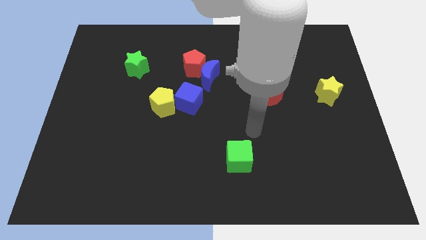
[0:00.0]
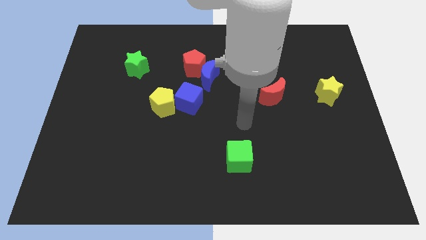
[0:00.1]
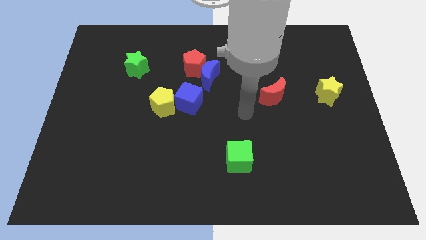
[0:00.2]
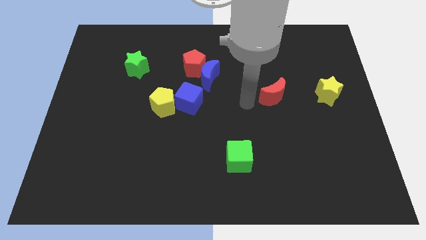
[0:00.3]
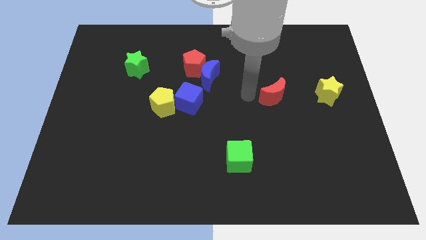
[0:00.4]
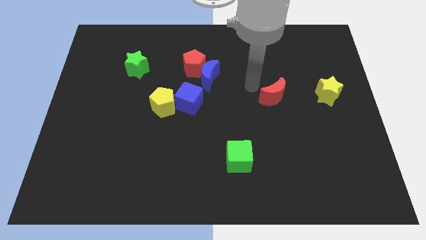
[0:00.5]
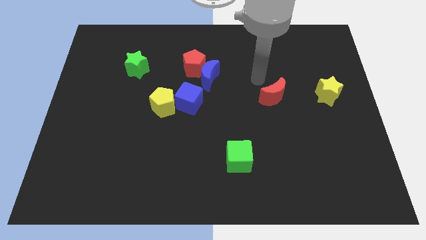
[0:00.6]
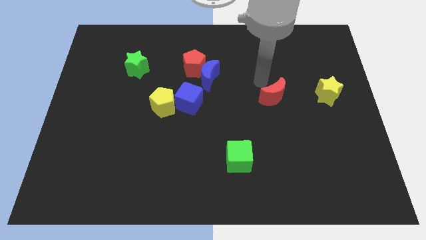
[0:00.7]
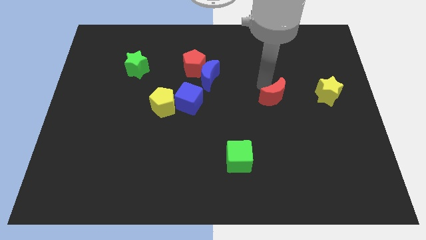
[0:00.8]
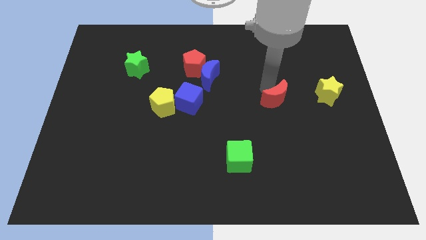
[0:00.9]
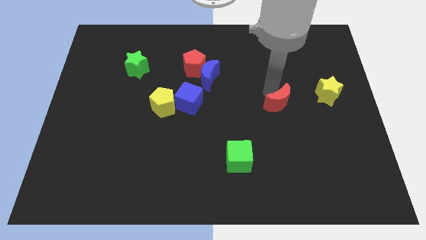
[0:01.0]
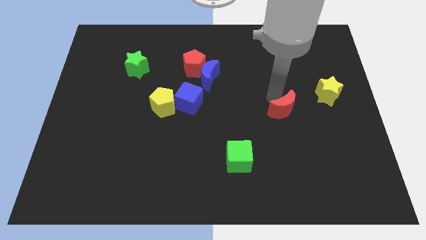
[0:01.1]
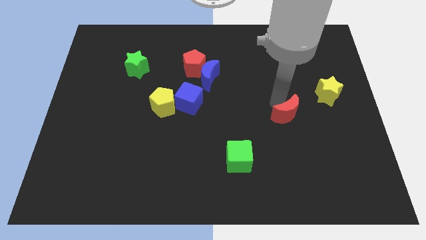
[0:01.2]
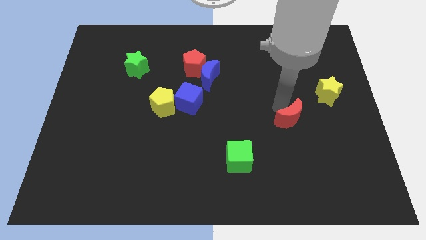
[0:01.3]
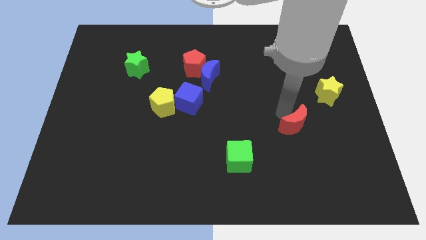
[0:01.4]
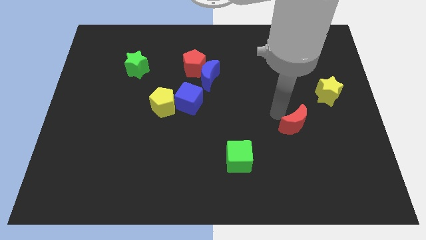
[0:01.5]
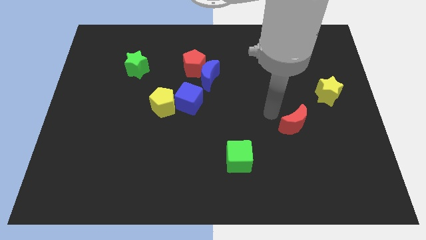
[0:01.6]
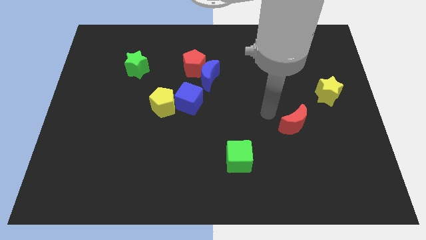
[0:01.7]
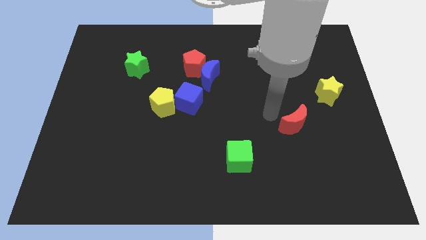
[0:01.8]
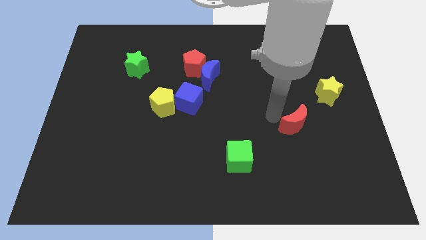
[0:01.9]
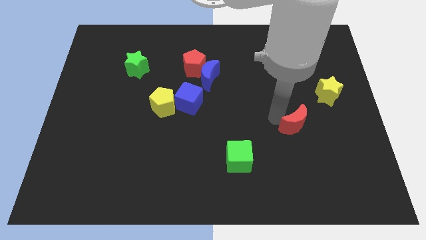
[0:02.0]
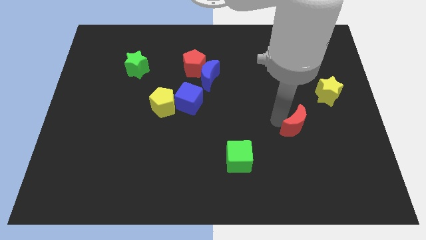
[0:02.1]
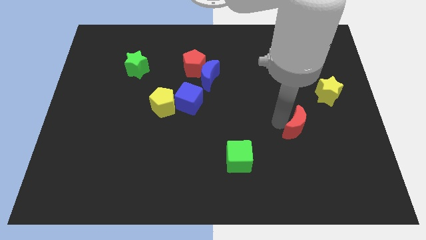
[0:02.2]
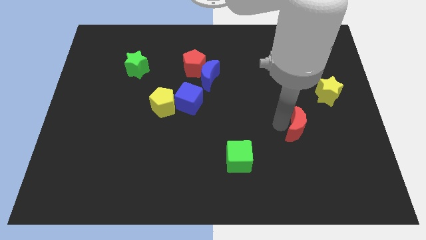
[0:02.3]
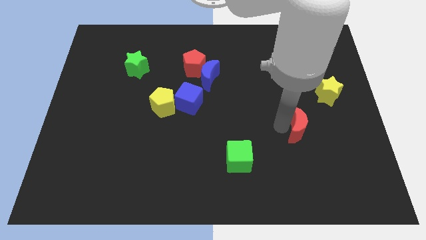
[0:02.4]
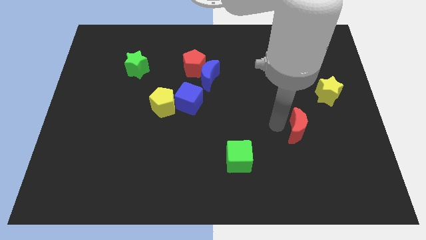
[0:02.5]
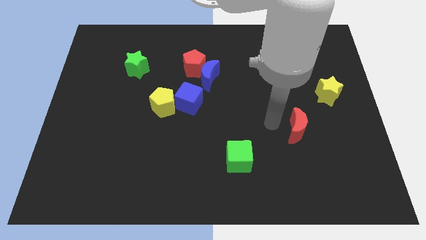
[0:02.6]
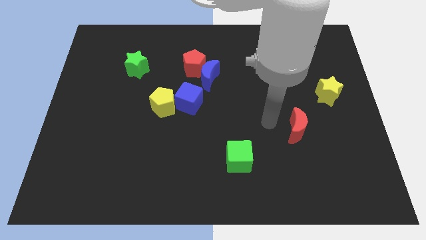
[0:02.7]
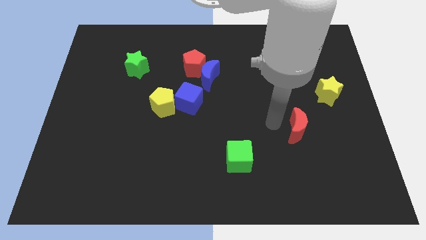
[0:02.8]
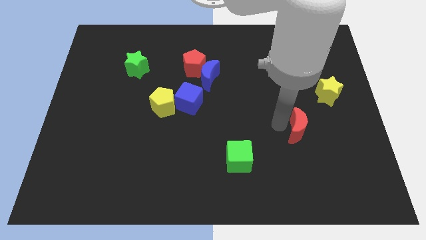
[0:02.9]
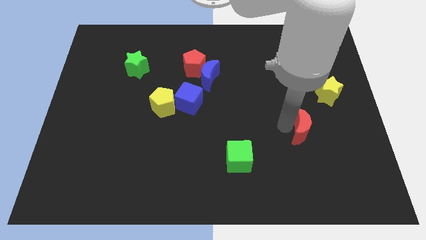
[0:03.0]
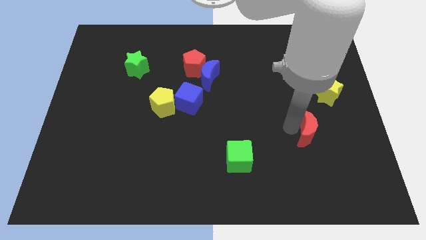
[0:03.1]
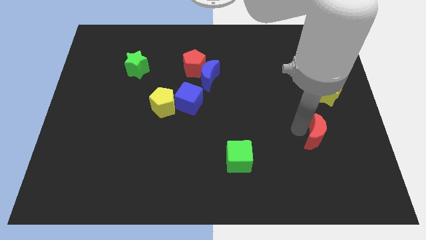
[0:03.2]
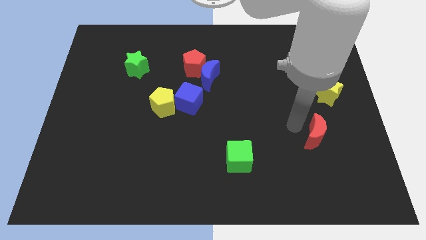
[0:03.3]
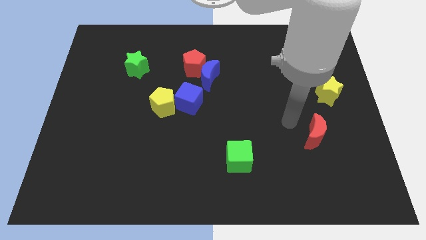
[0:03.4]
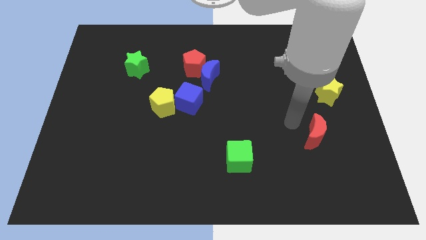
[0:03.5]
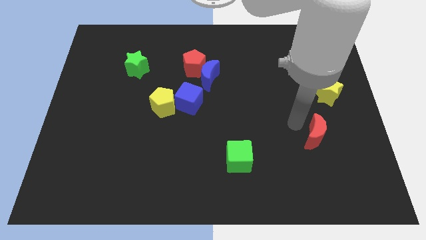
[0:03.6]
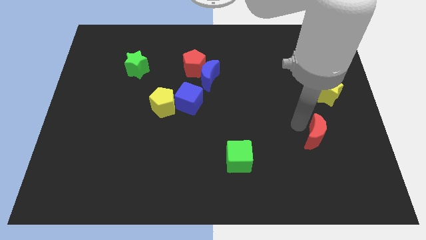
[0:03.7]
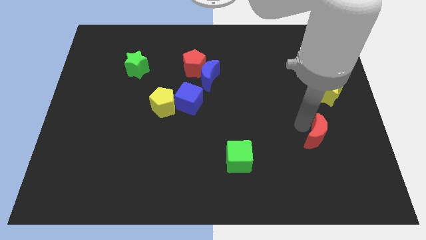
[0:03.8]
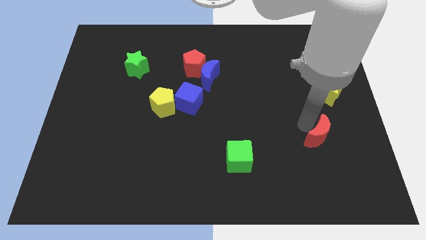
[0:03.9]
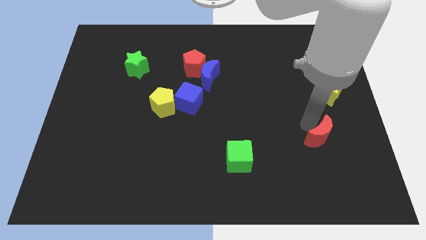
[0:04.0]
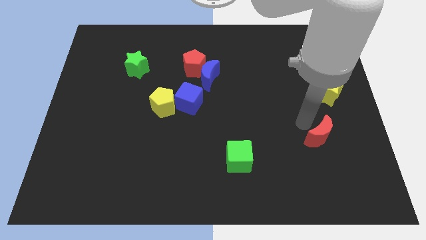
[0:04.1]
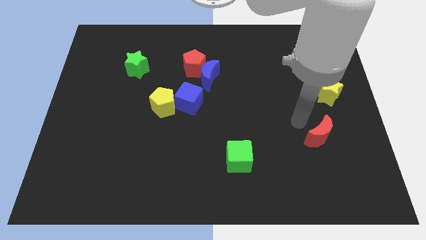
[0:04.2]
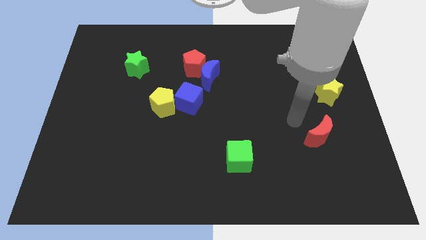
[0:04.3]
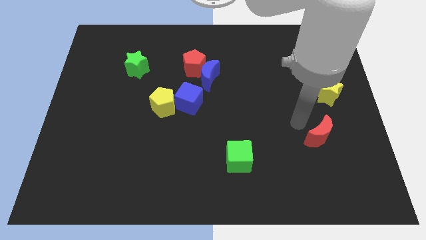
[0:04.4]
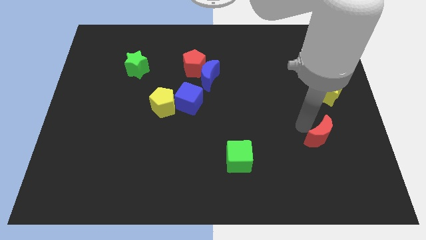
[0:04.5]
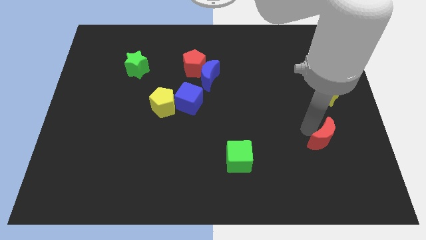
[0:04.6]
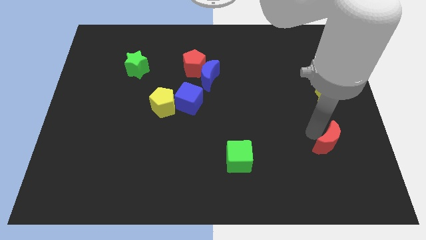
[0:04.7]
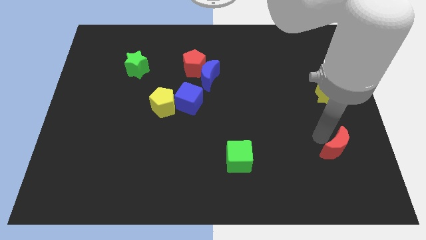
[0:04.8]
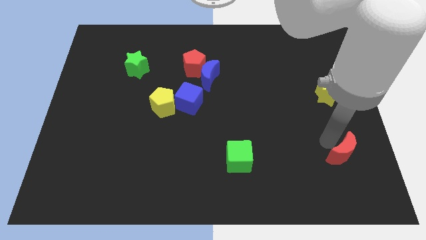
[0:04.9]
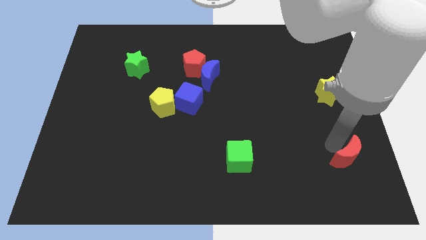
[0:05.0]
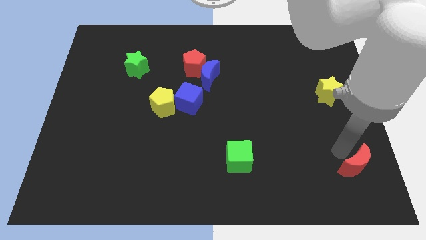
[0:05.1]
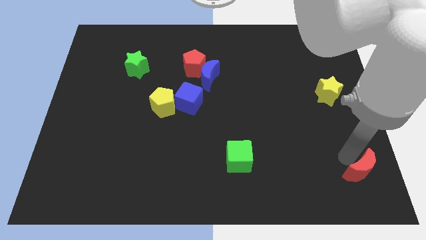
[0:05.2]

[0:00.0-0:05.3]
slide the red moon to the lower right corner

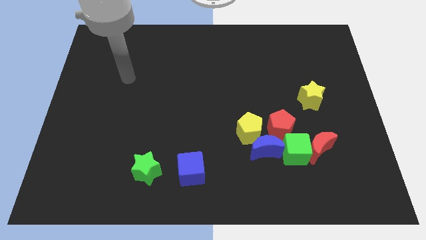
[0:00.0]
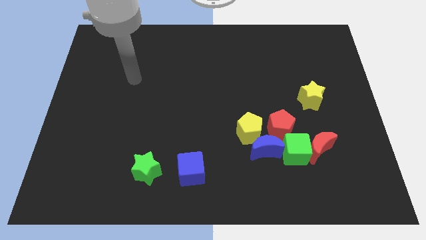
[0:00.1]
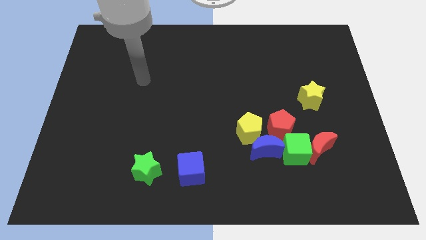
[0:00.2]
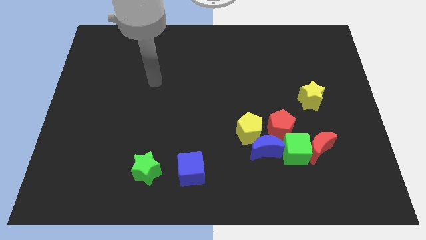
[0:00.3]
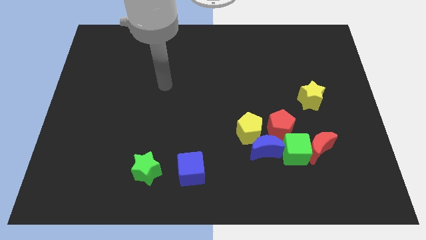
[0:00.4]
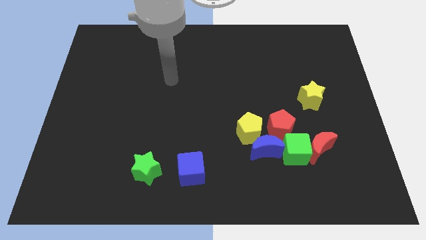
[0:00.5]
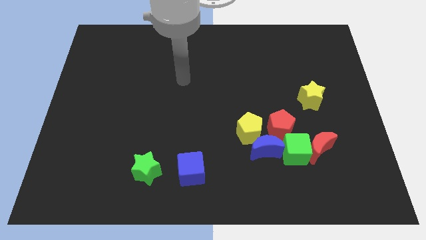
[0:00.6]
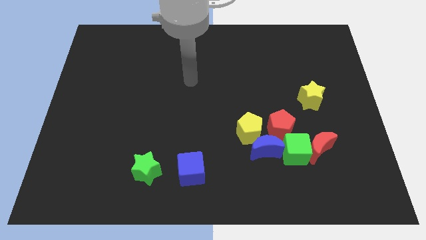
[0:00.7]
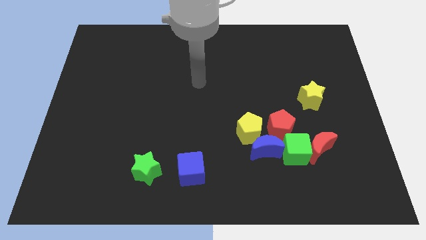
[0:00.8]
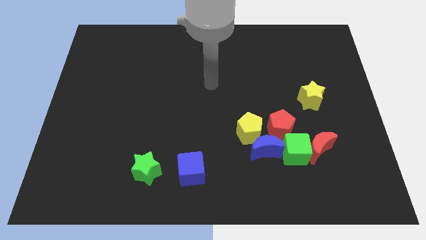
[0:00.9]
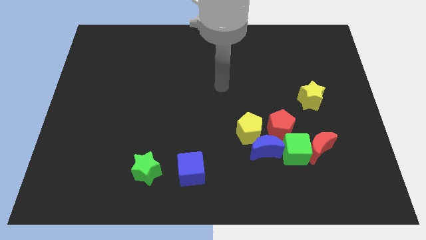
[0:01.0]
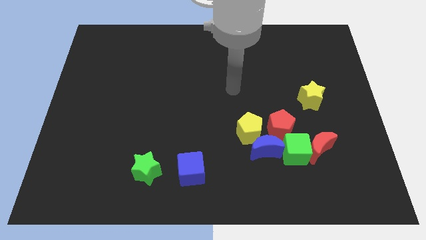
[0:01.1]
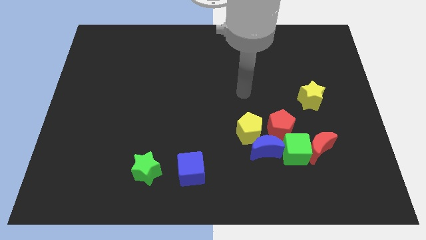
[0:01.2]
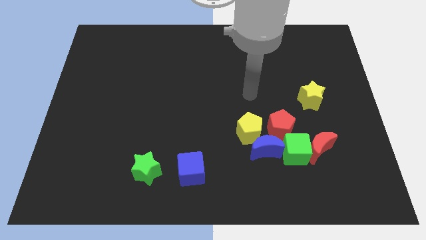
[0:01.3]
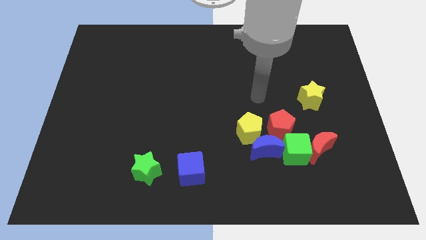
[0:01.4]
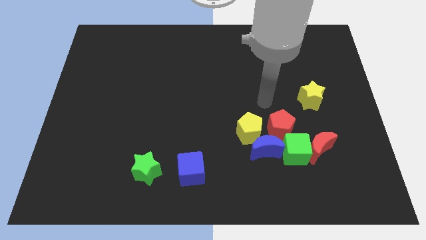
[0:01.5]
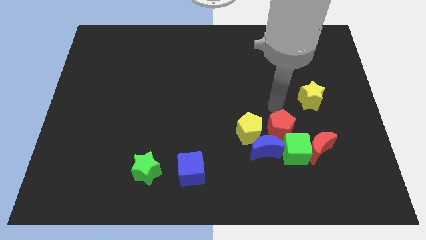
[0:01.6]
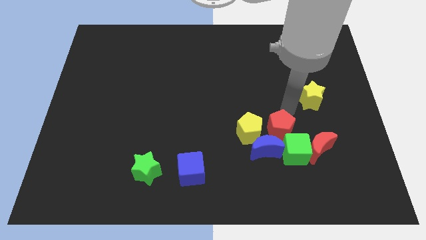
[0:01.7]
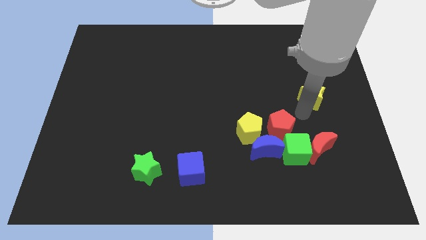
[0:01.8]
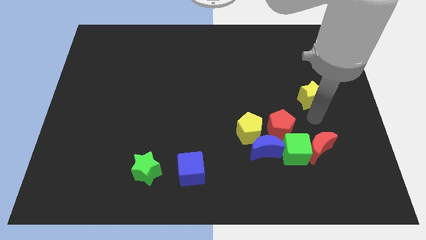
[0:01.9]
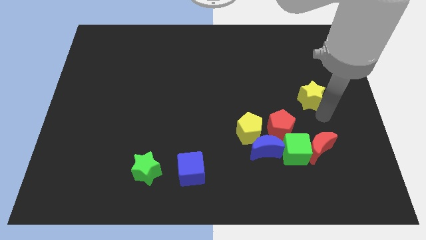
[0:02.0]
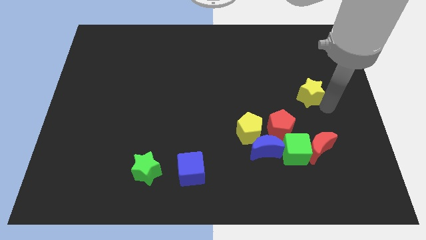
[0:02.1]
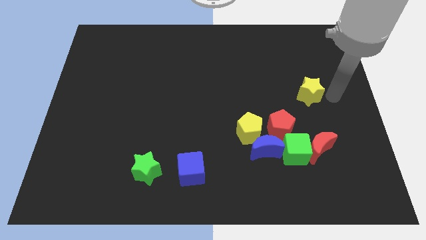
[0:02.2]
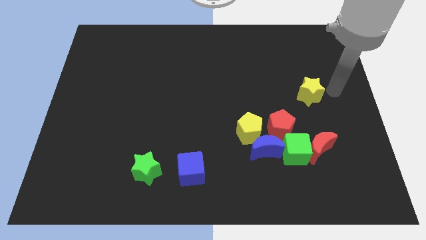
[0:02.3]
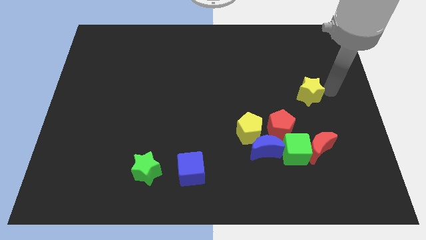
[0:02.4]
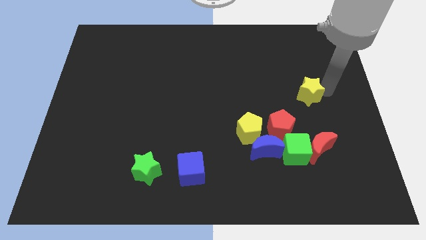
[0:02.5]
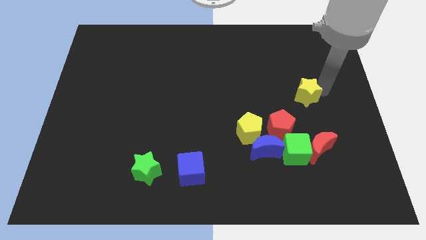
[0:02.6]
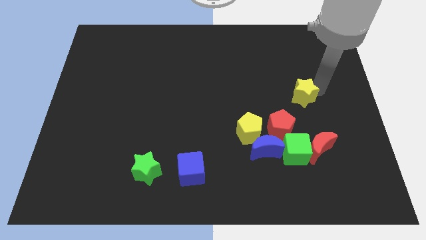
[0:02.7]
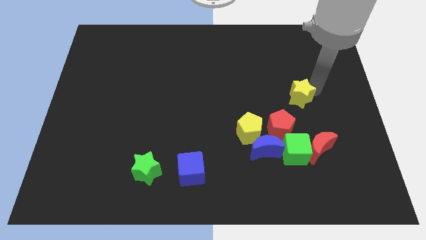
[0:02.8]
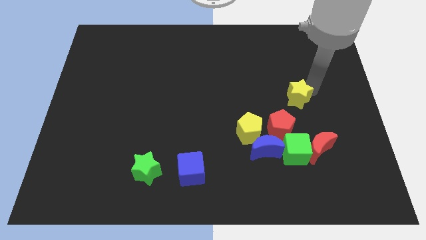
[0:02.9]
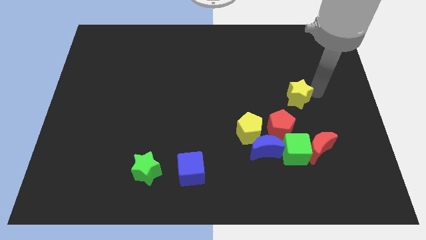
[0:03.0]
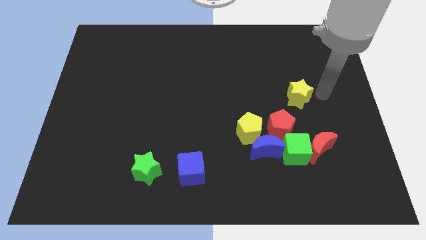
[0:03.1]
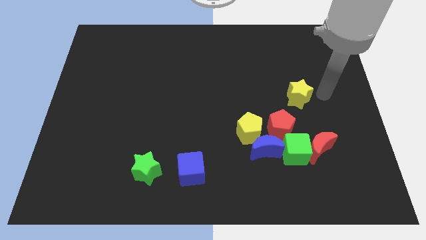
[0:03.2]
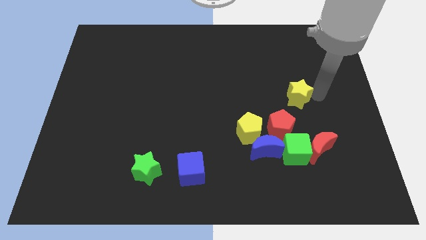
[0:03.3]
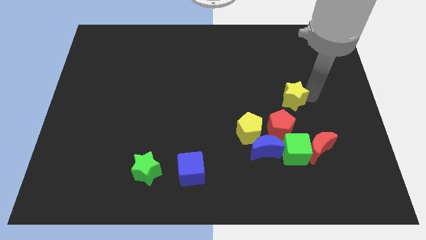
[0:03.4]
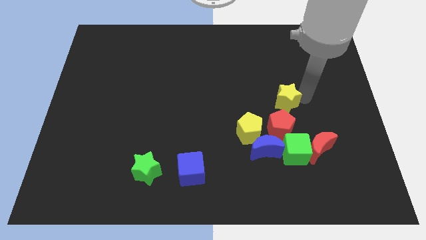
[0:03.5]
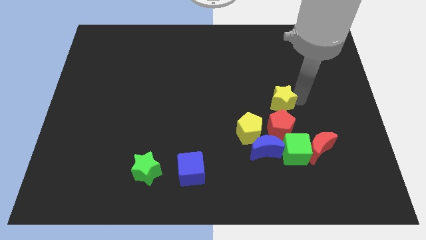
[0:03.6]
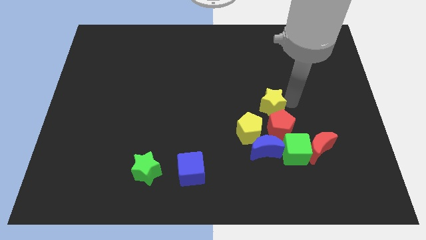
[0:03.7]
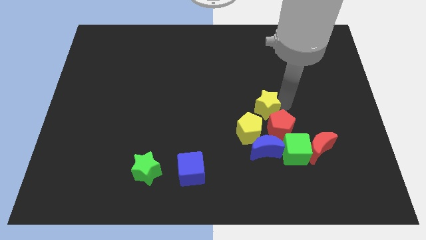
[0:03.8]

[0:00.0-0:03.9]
put the yellow star to the middle of the board
